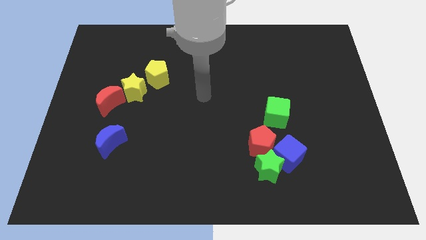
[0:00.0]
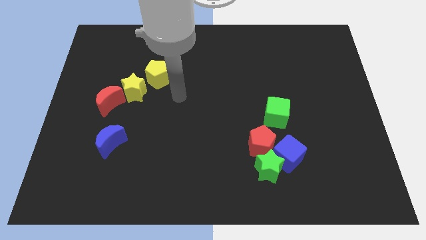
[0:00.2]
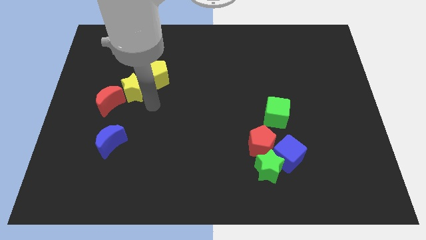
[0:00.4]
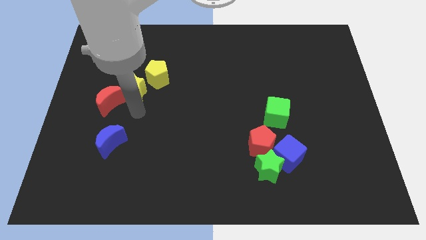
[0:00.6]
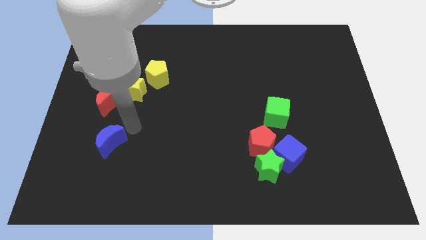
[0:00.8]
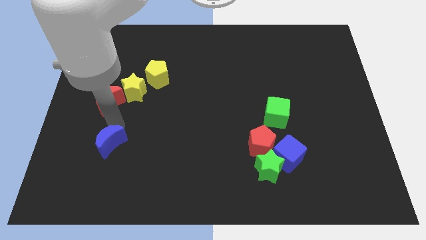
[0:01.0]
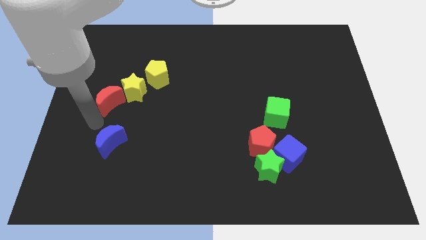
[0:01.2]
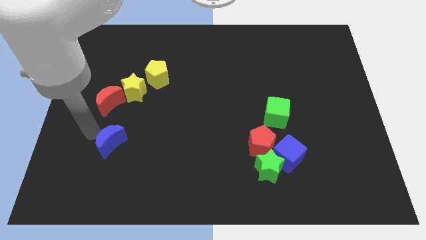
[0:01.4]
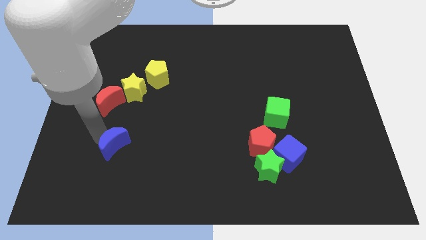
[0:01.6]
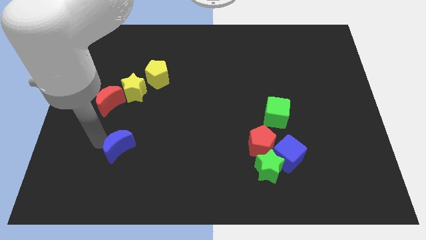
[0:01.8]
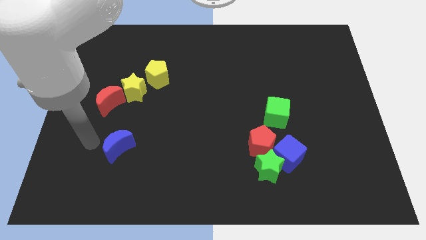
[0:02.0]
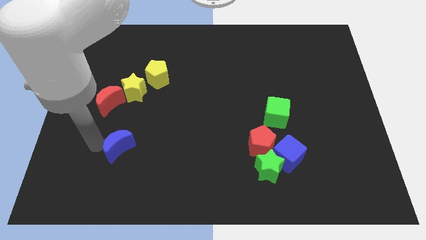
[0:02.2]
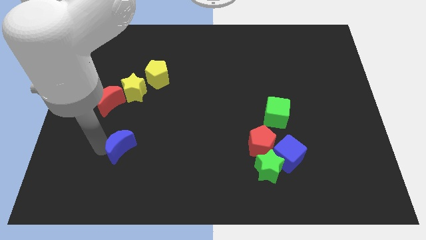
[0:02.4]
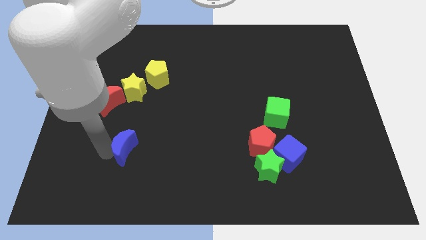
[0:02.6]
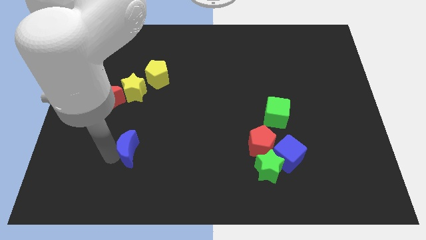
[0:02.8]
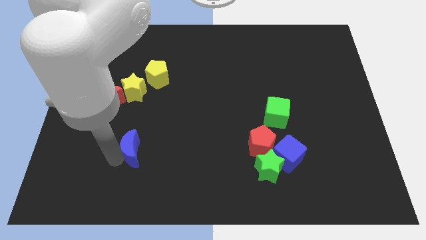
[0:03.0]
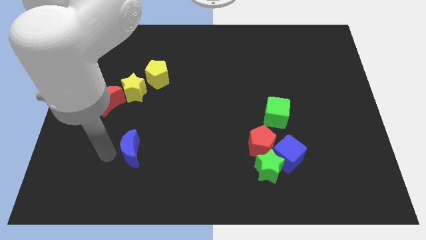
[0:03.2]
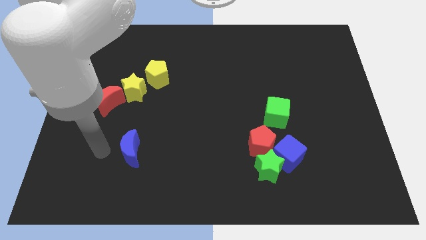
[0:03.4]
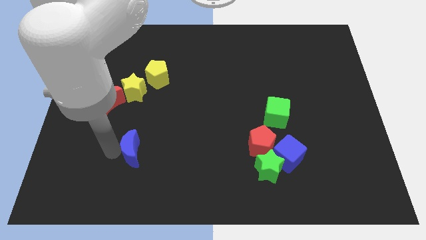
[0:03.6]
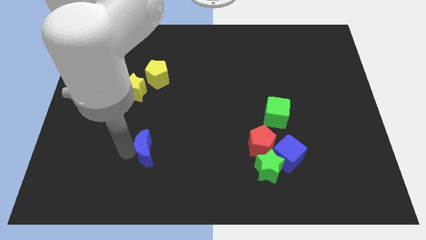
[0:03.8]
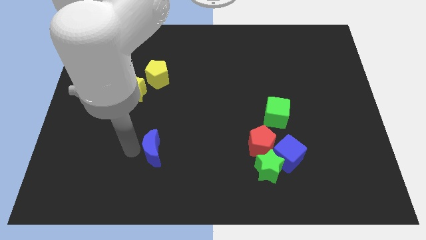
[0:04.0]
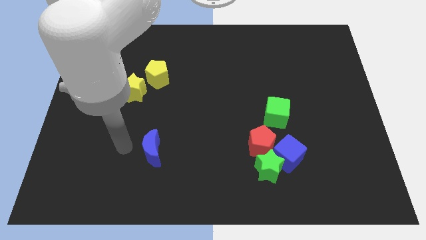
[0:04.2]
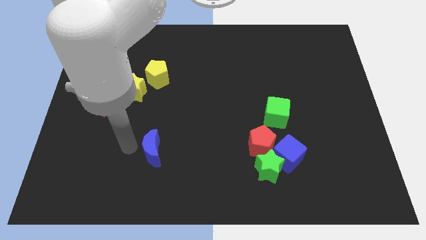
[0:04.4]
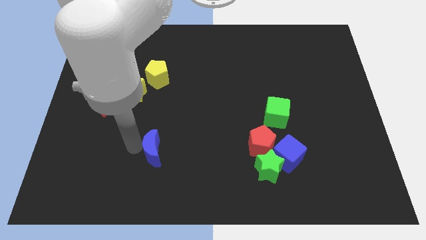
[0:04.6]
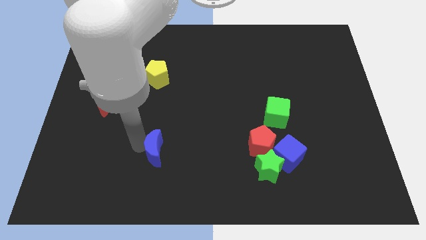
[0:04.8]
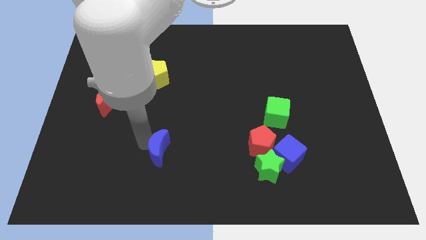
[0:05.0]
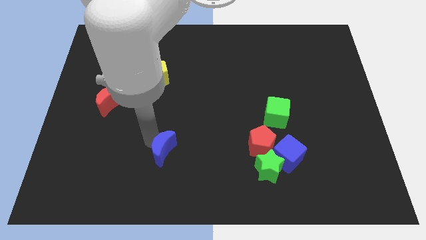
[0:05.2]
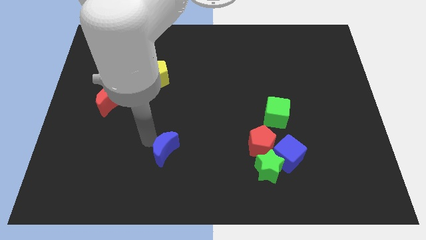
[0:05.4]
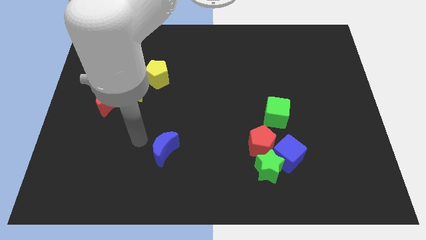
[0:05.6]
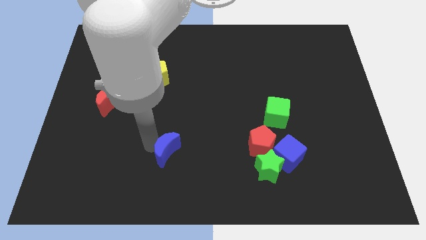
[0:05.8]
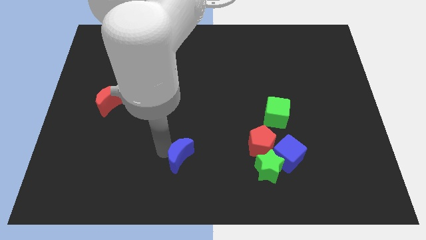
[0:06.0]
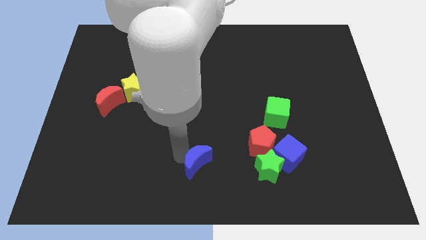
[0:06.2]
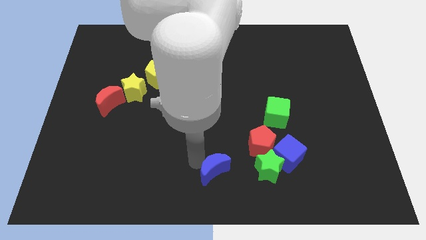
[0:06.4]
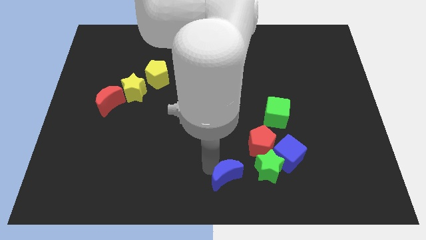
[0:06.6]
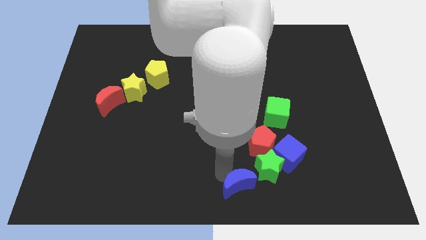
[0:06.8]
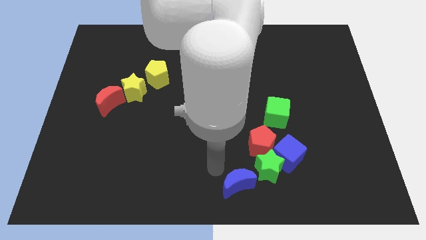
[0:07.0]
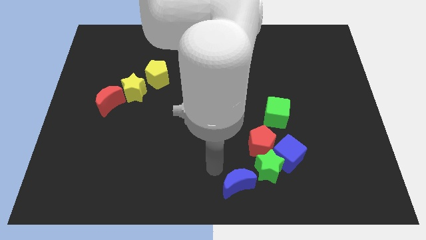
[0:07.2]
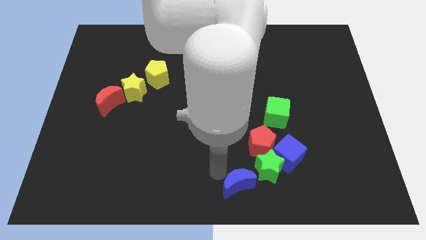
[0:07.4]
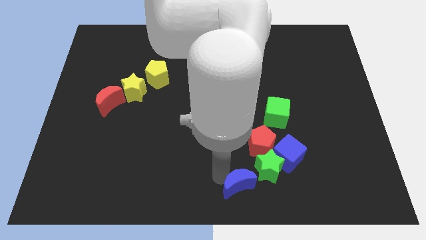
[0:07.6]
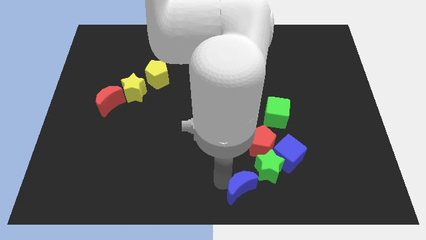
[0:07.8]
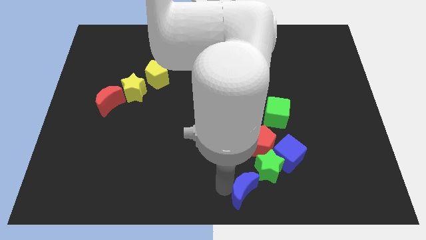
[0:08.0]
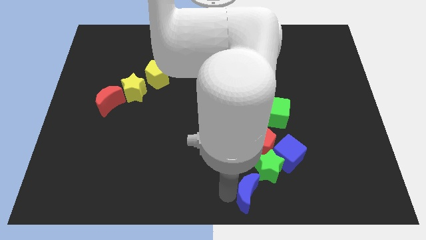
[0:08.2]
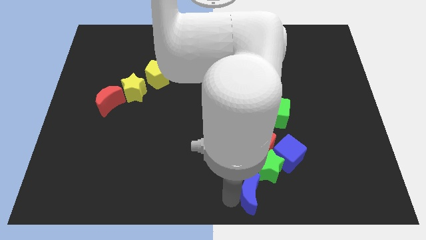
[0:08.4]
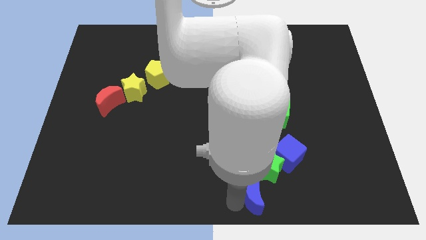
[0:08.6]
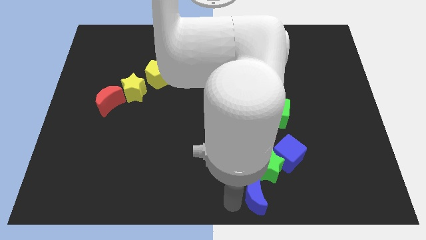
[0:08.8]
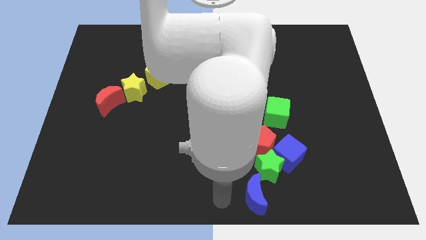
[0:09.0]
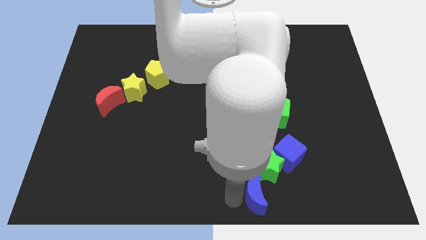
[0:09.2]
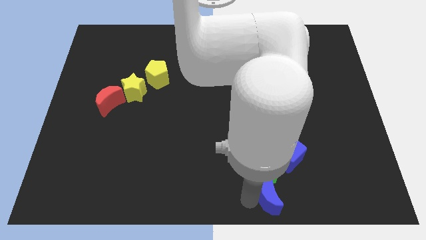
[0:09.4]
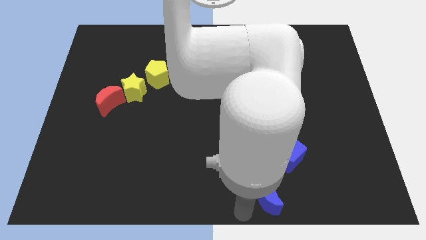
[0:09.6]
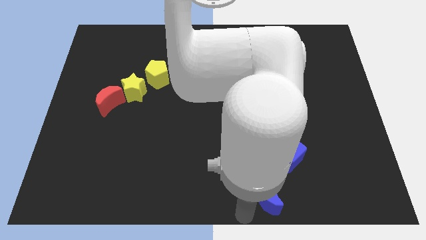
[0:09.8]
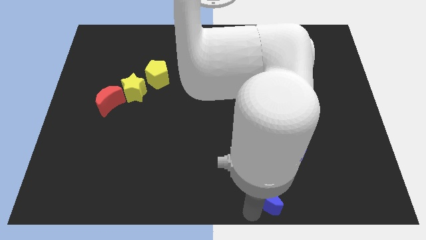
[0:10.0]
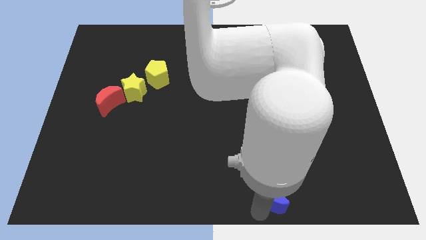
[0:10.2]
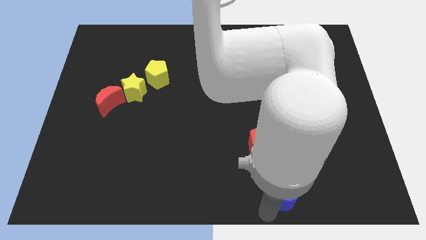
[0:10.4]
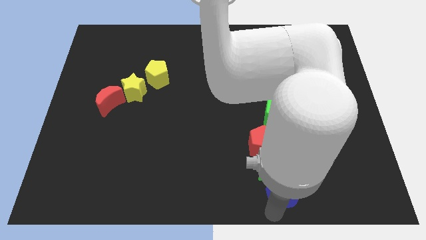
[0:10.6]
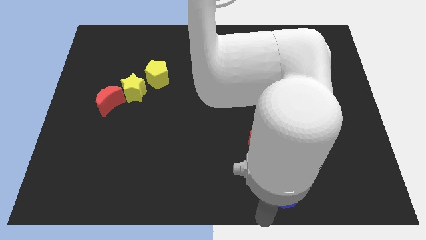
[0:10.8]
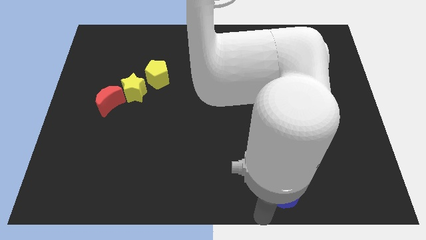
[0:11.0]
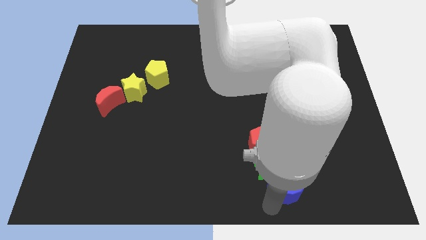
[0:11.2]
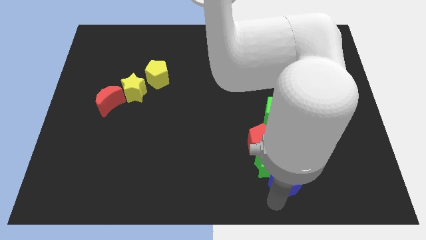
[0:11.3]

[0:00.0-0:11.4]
put the blue moon just right of the green star

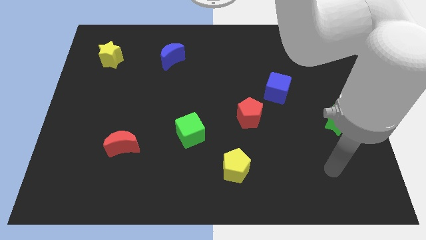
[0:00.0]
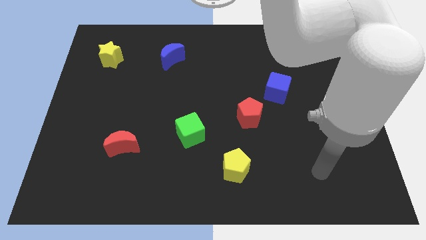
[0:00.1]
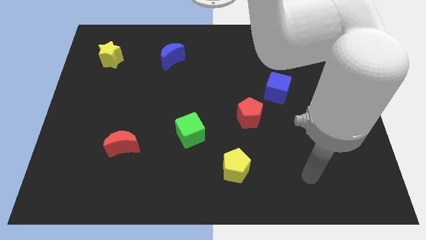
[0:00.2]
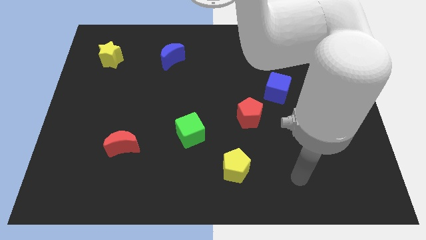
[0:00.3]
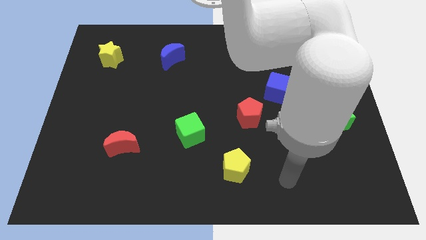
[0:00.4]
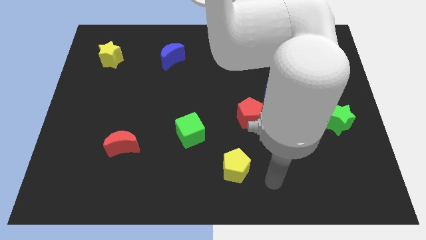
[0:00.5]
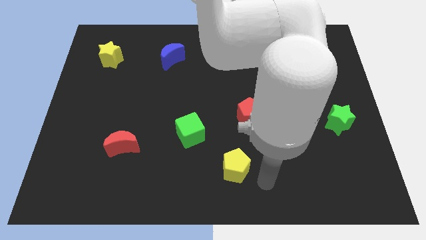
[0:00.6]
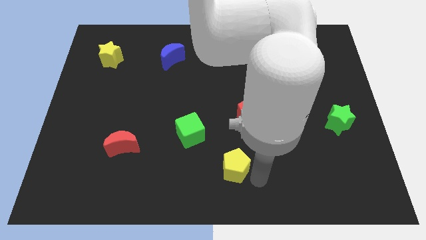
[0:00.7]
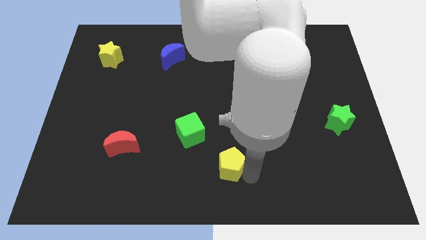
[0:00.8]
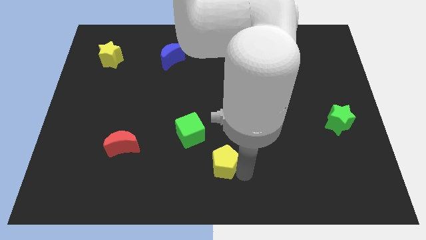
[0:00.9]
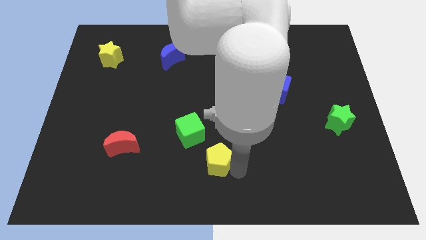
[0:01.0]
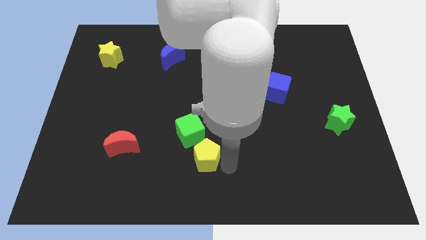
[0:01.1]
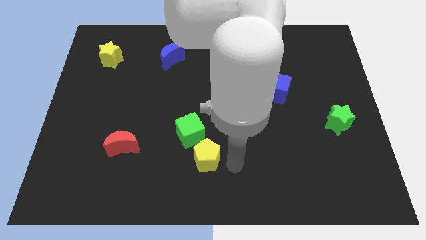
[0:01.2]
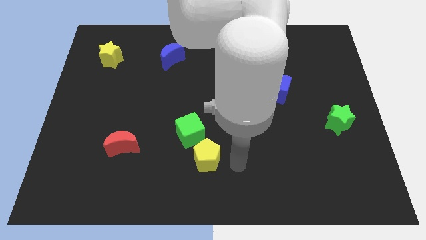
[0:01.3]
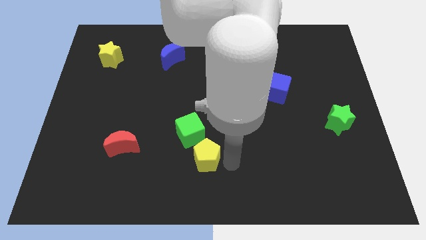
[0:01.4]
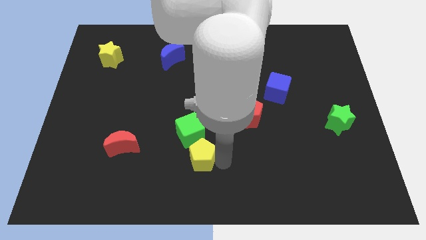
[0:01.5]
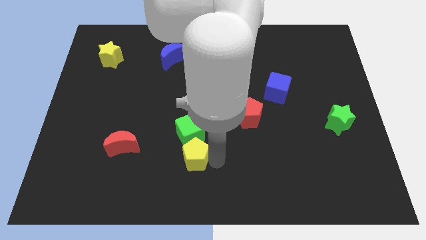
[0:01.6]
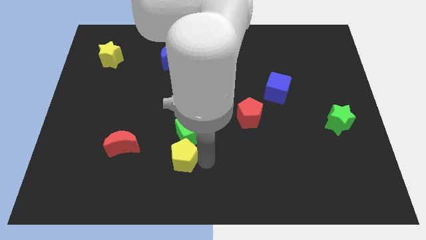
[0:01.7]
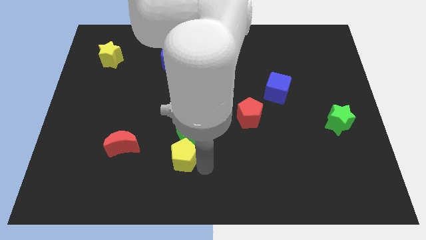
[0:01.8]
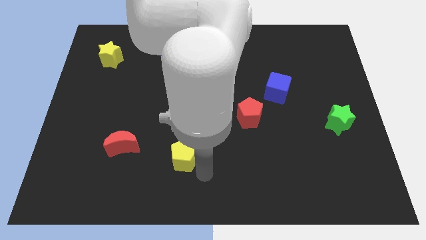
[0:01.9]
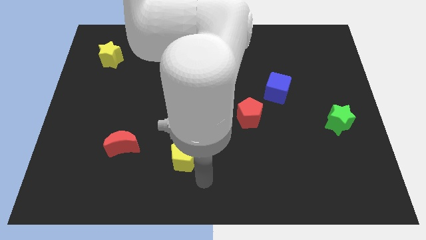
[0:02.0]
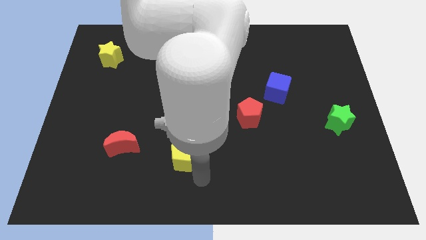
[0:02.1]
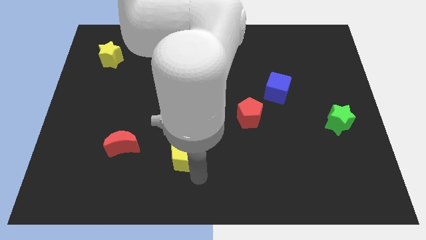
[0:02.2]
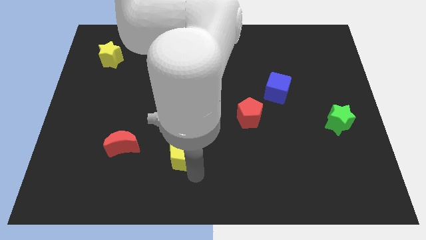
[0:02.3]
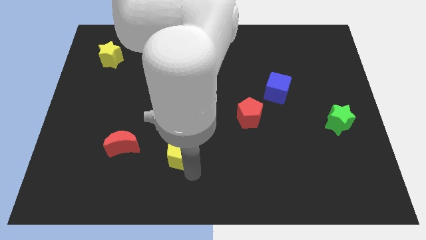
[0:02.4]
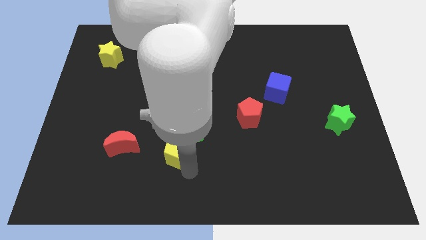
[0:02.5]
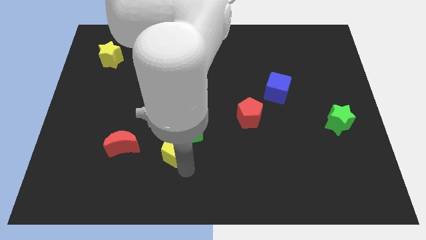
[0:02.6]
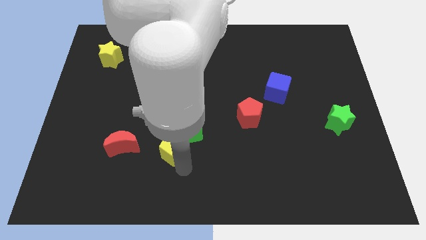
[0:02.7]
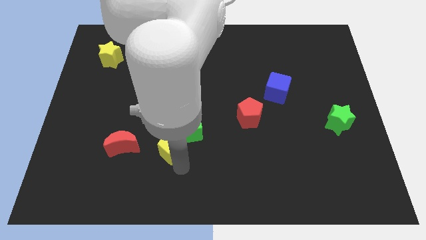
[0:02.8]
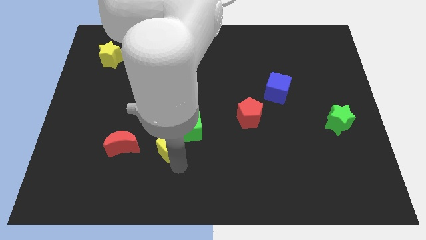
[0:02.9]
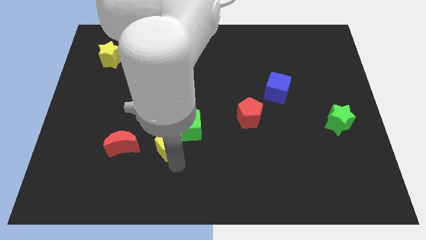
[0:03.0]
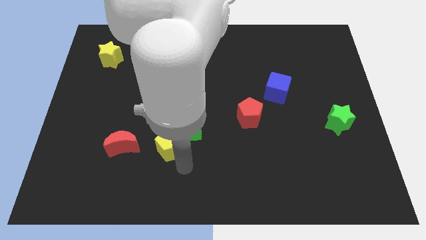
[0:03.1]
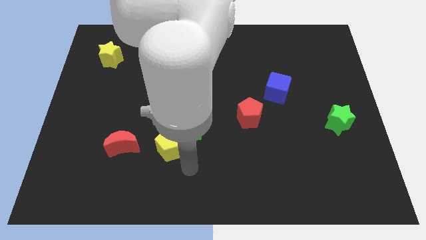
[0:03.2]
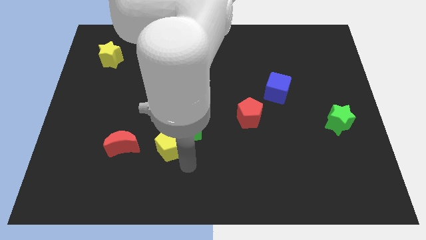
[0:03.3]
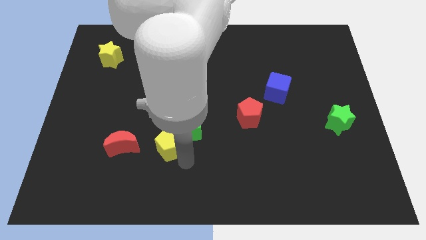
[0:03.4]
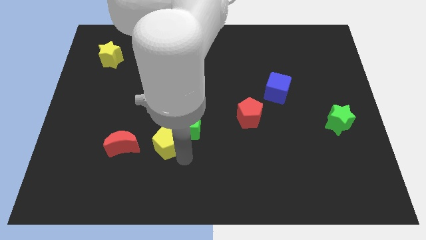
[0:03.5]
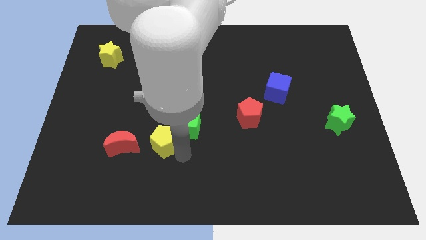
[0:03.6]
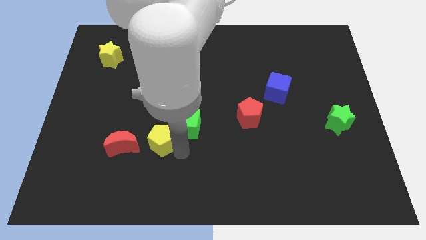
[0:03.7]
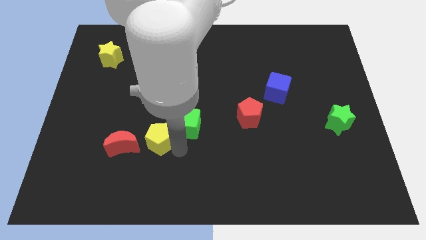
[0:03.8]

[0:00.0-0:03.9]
move the yellow pentagon to the top right of the red moon
